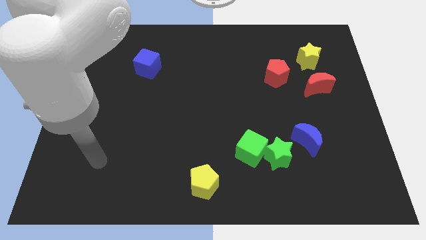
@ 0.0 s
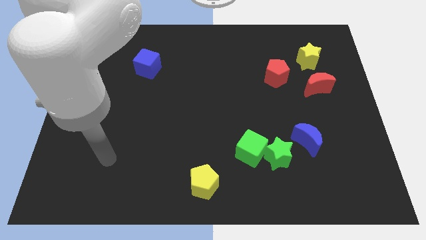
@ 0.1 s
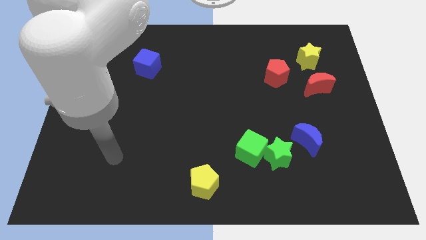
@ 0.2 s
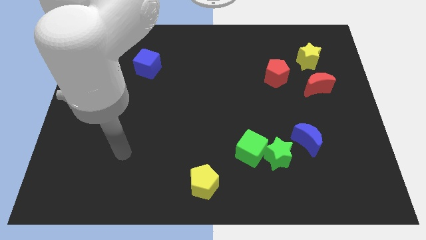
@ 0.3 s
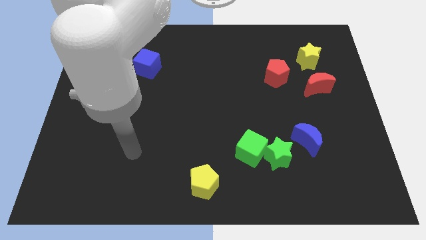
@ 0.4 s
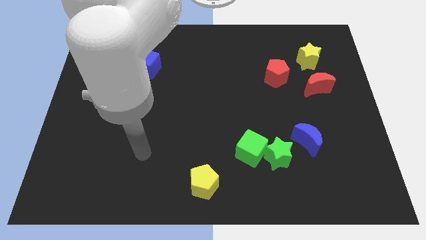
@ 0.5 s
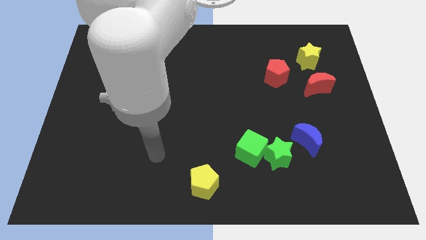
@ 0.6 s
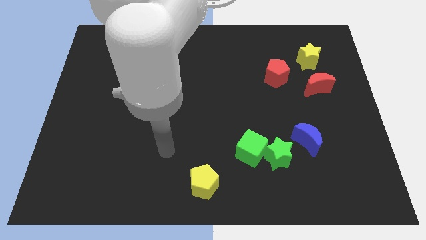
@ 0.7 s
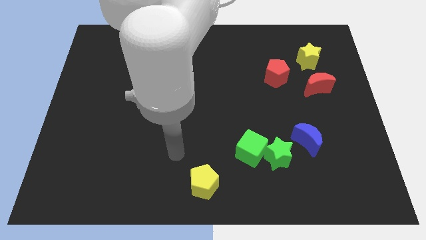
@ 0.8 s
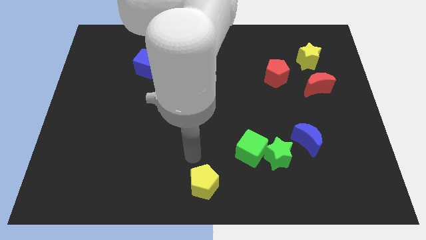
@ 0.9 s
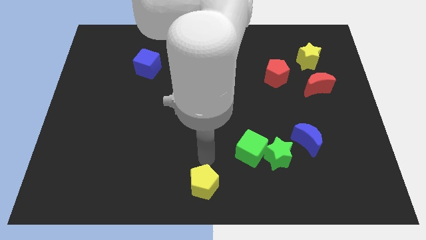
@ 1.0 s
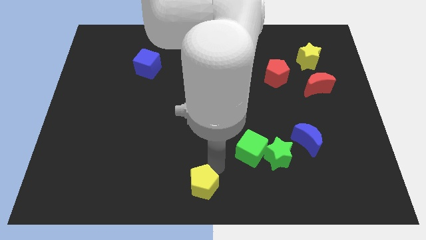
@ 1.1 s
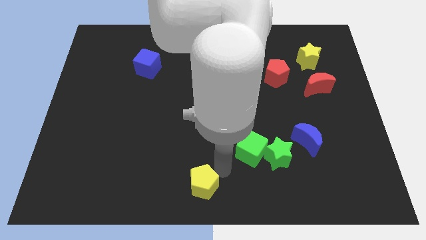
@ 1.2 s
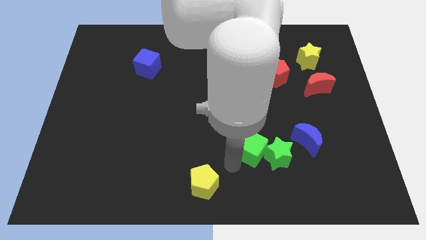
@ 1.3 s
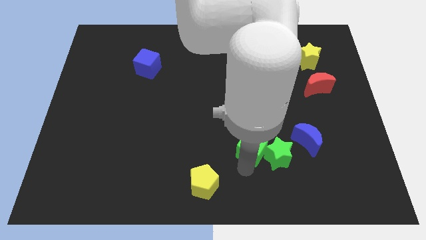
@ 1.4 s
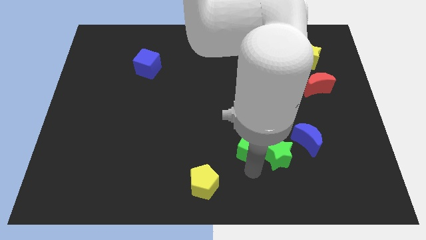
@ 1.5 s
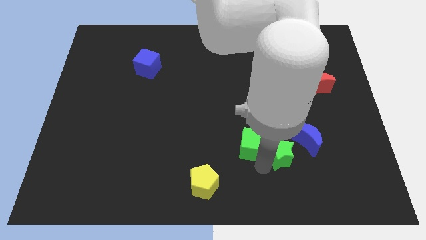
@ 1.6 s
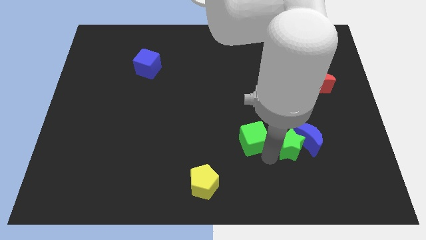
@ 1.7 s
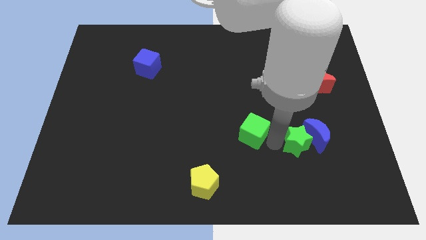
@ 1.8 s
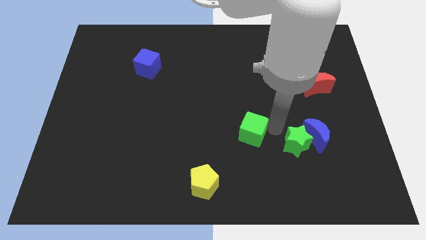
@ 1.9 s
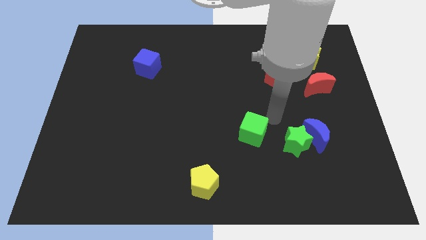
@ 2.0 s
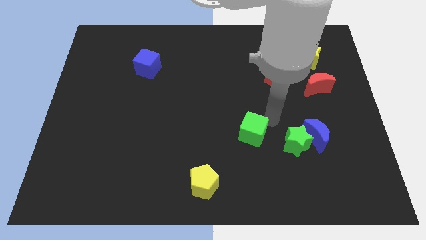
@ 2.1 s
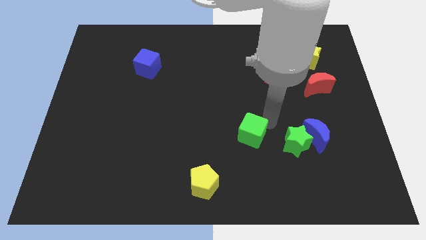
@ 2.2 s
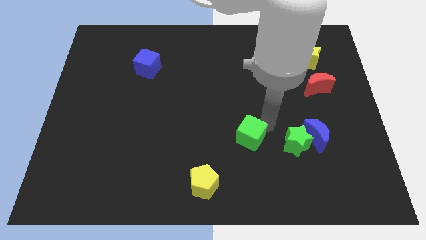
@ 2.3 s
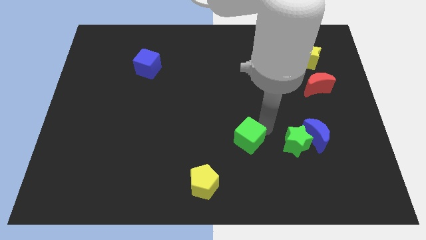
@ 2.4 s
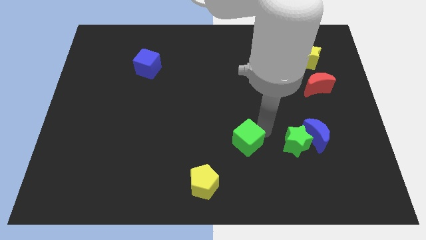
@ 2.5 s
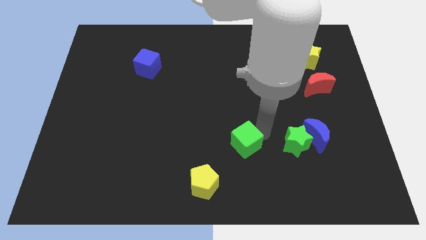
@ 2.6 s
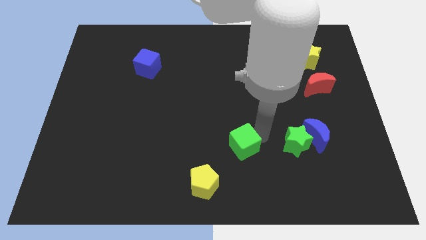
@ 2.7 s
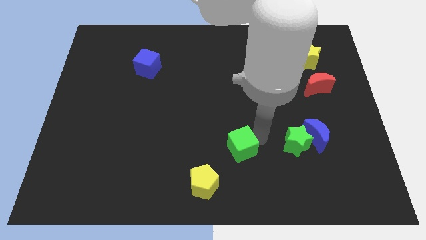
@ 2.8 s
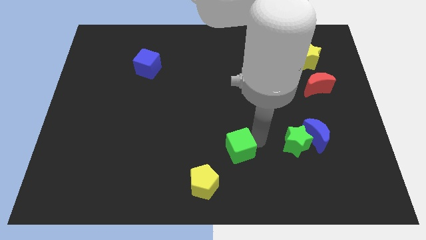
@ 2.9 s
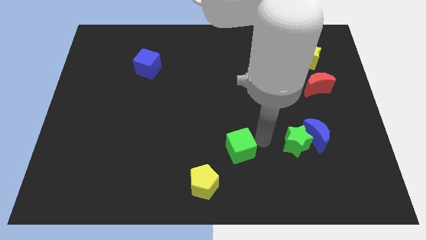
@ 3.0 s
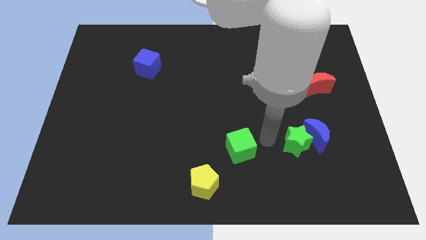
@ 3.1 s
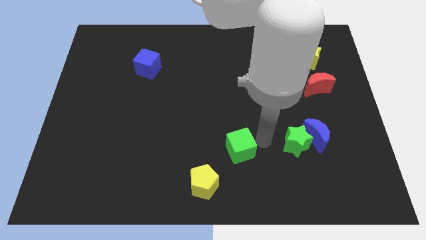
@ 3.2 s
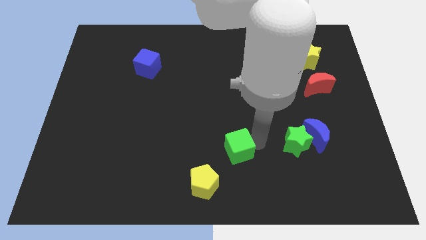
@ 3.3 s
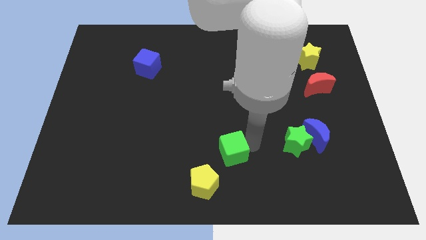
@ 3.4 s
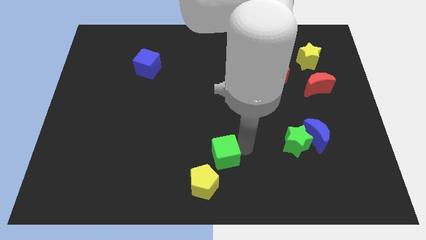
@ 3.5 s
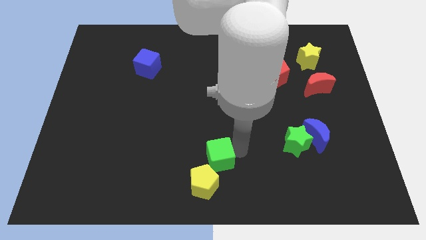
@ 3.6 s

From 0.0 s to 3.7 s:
slightly push the green cube to the left

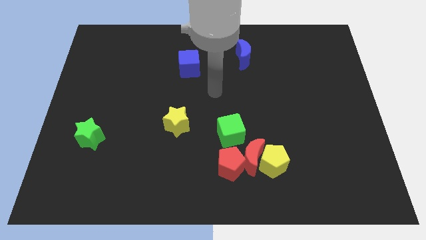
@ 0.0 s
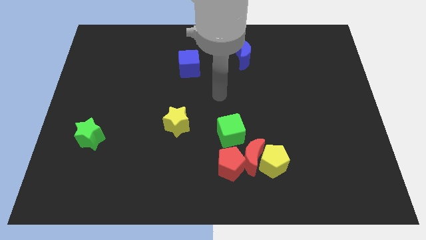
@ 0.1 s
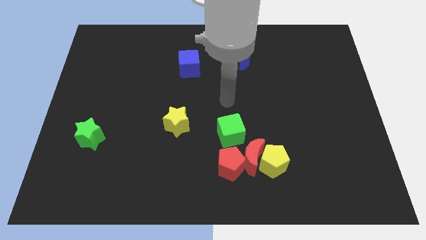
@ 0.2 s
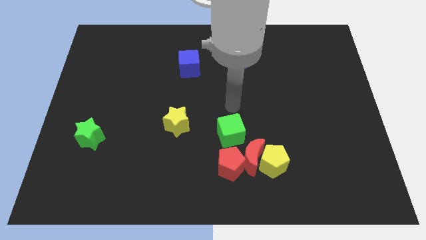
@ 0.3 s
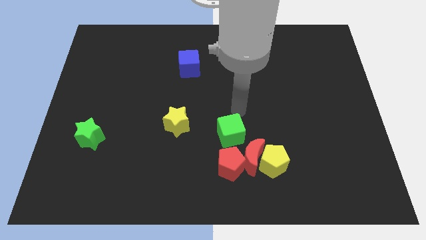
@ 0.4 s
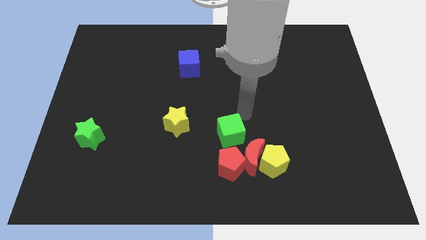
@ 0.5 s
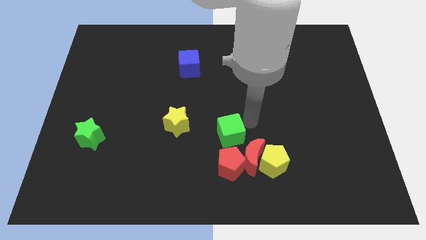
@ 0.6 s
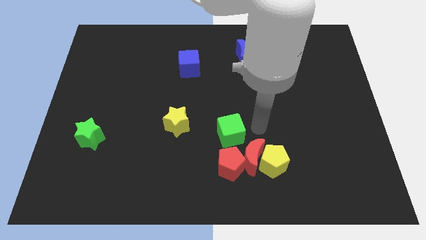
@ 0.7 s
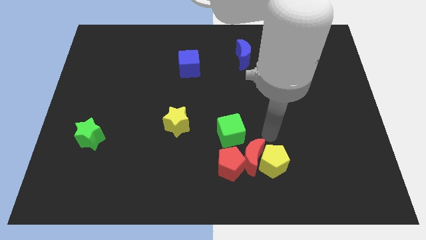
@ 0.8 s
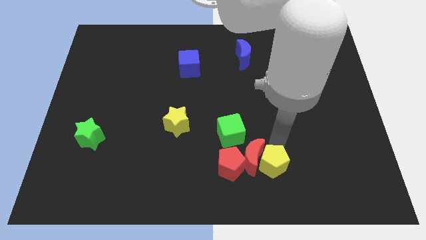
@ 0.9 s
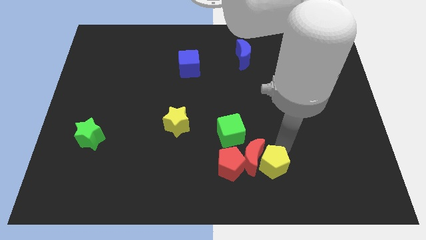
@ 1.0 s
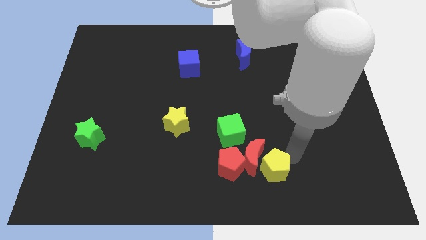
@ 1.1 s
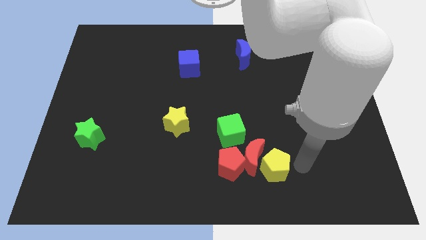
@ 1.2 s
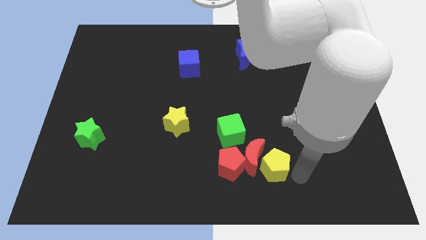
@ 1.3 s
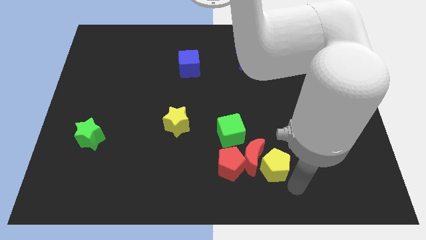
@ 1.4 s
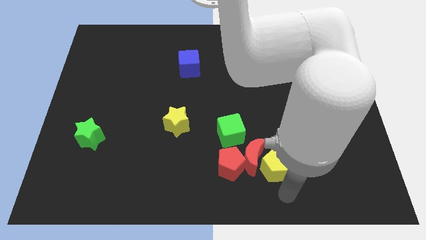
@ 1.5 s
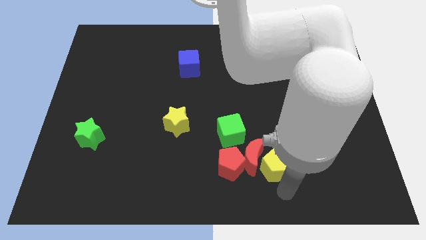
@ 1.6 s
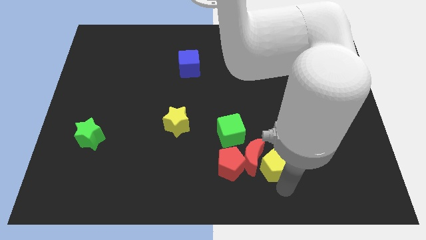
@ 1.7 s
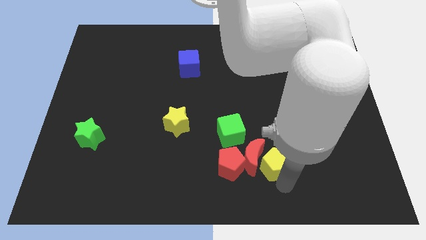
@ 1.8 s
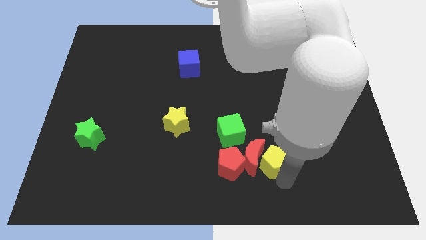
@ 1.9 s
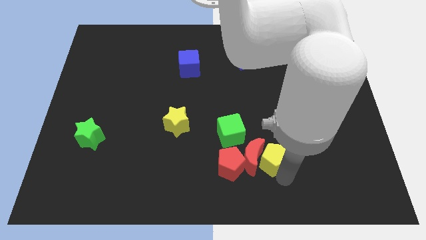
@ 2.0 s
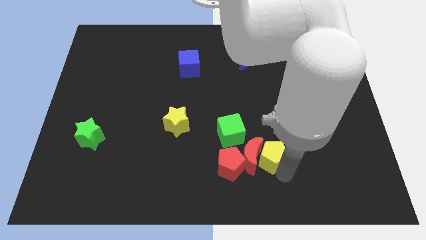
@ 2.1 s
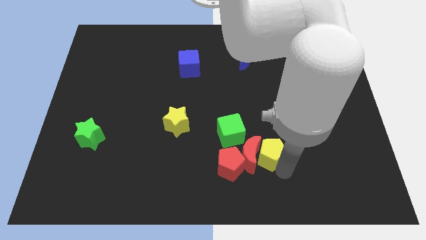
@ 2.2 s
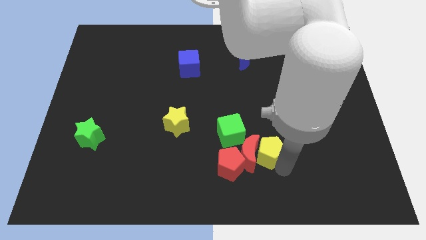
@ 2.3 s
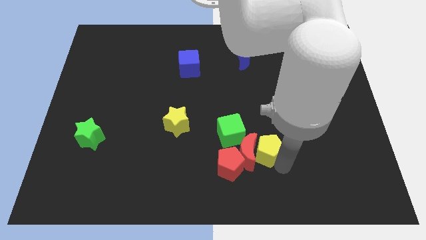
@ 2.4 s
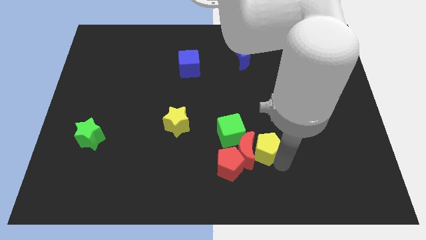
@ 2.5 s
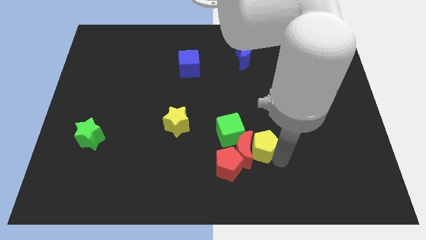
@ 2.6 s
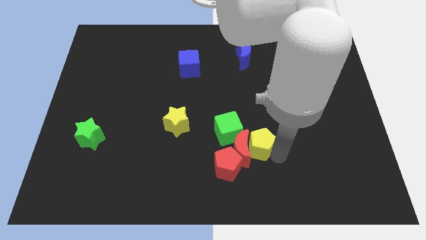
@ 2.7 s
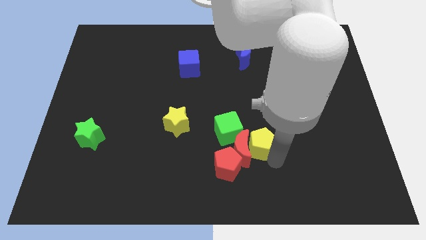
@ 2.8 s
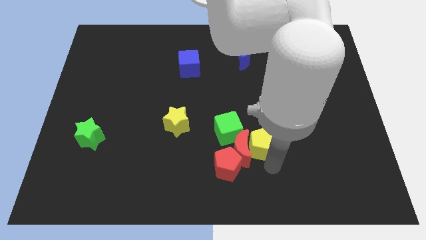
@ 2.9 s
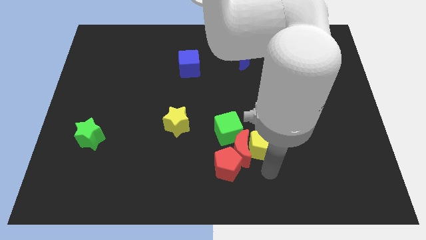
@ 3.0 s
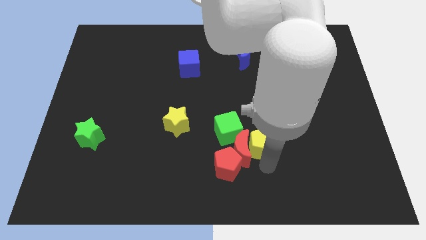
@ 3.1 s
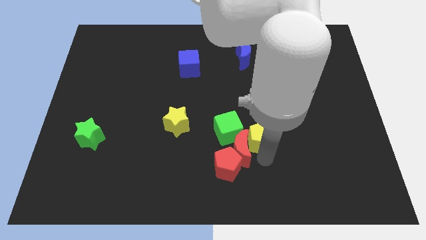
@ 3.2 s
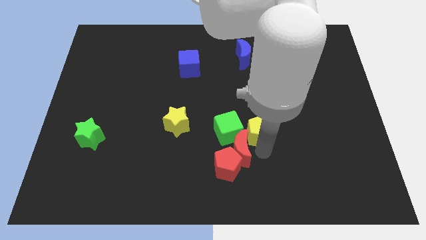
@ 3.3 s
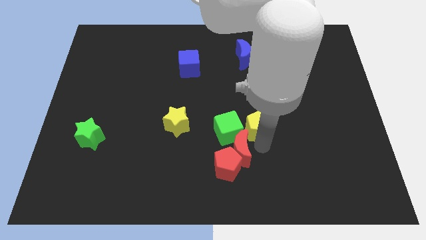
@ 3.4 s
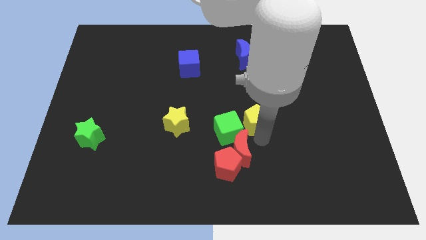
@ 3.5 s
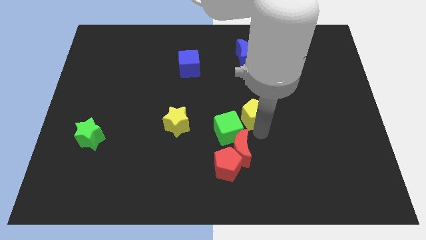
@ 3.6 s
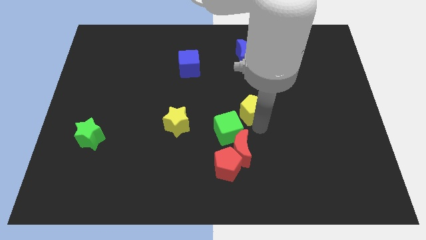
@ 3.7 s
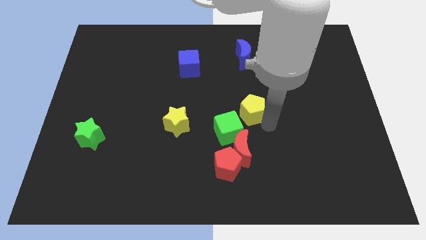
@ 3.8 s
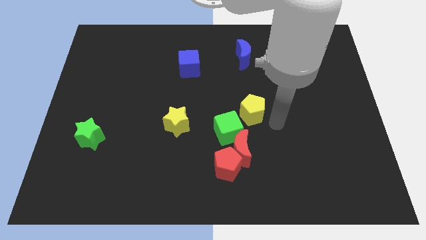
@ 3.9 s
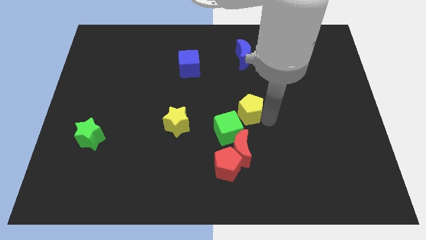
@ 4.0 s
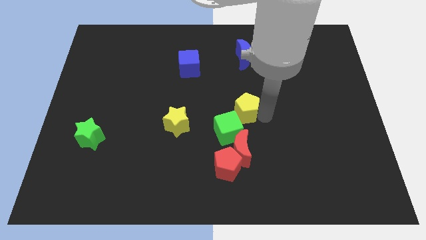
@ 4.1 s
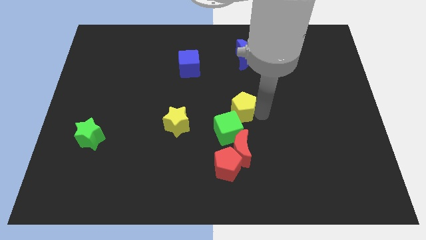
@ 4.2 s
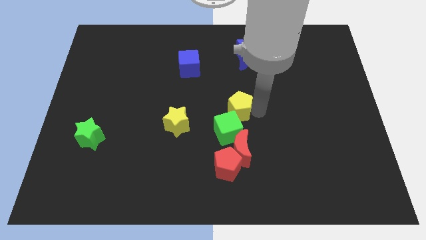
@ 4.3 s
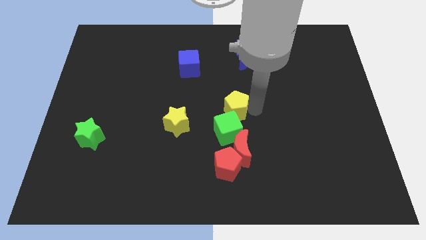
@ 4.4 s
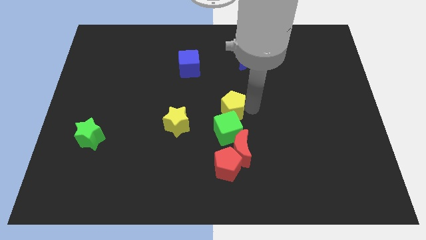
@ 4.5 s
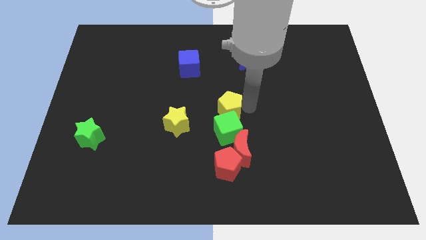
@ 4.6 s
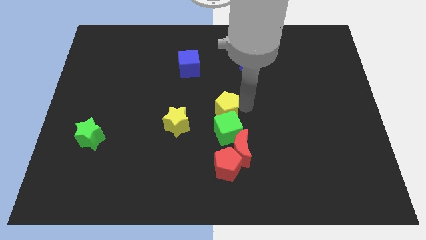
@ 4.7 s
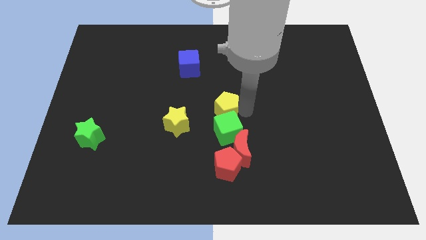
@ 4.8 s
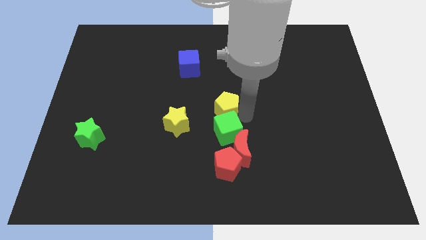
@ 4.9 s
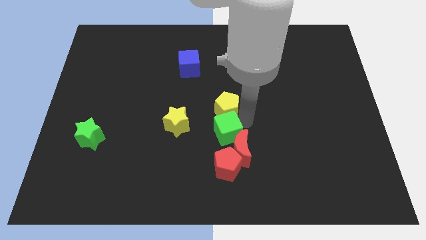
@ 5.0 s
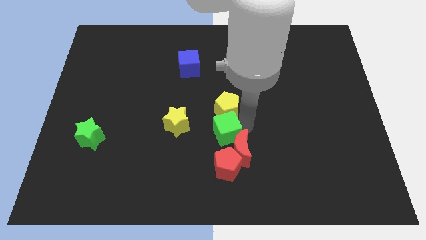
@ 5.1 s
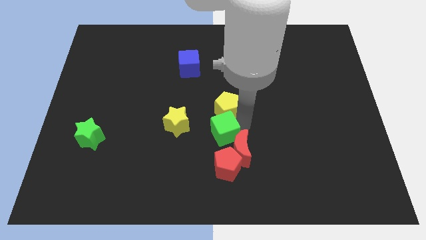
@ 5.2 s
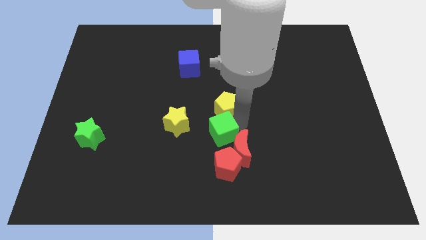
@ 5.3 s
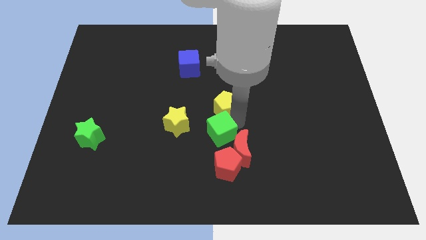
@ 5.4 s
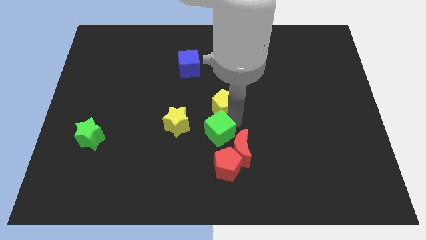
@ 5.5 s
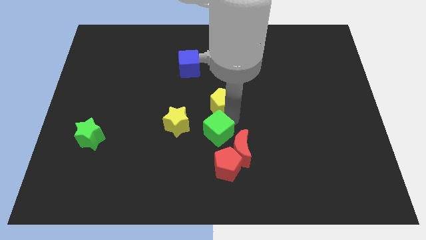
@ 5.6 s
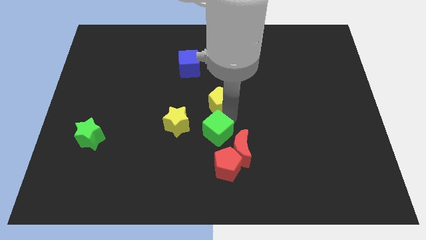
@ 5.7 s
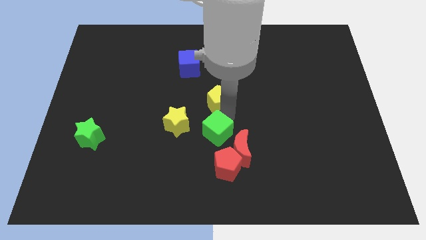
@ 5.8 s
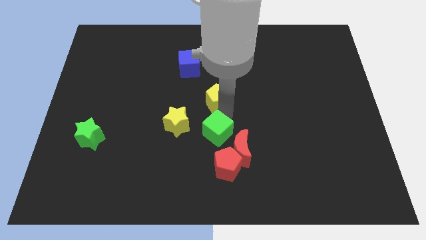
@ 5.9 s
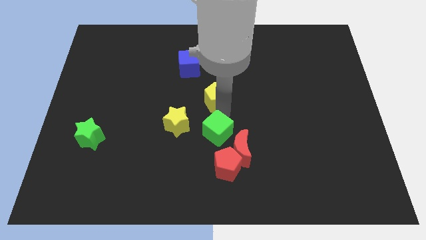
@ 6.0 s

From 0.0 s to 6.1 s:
push the yellow pentagon diagonally up and to the left
